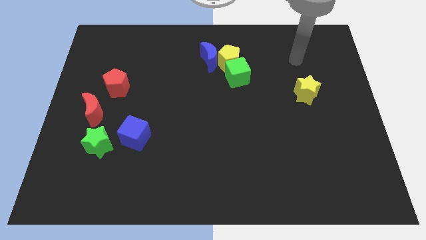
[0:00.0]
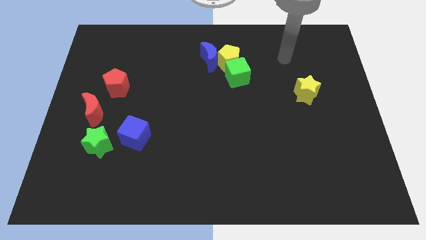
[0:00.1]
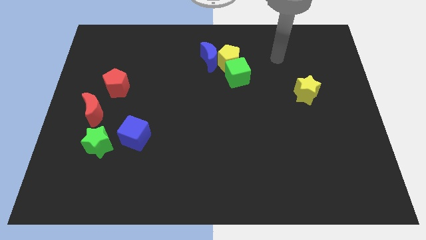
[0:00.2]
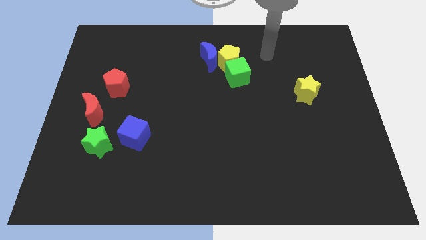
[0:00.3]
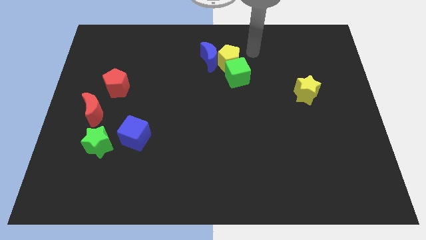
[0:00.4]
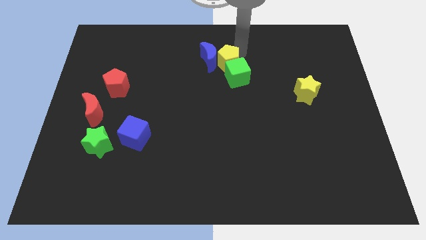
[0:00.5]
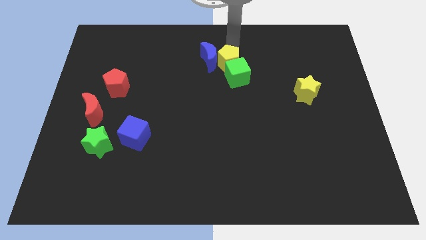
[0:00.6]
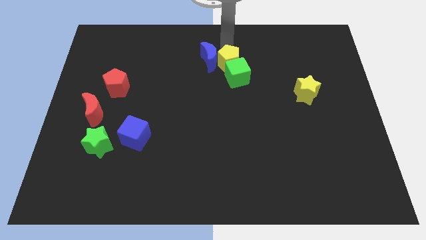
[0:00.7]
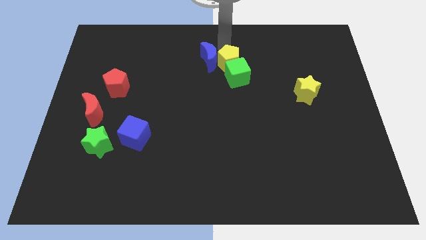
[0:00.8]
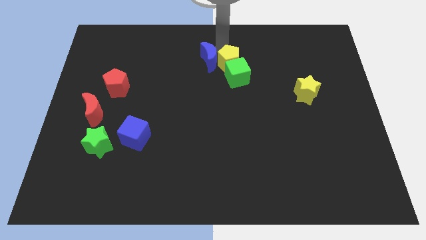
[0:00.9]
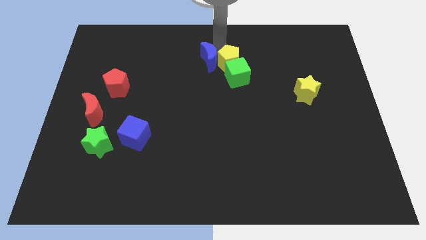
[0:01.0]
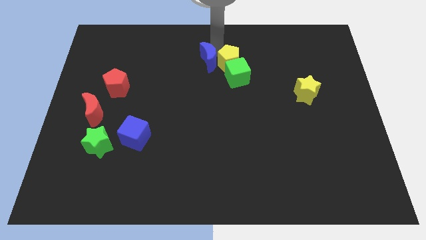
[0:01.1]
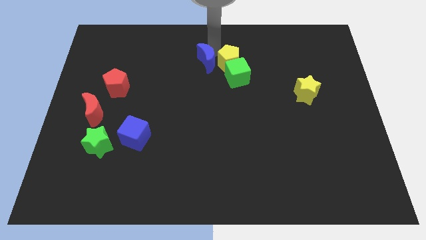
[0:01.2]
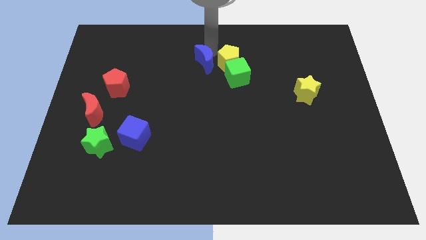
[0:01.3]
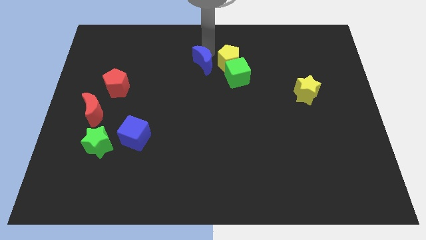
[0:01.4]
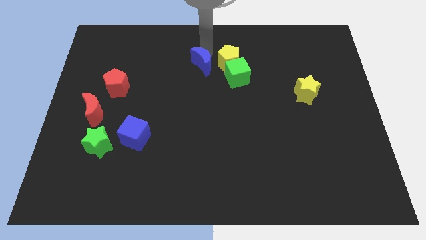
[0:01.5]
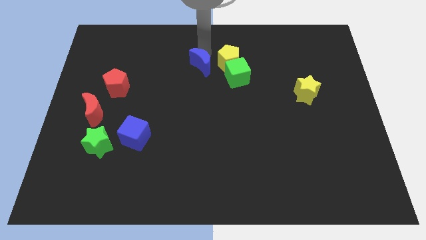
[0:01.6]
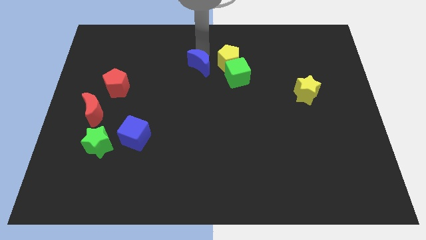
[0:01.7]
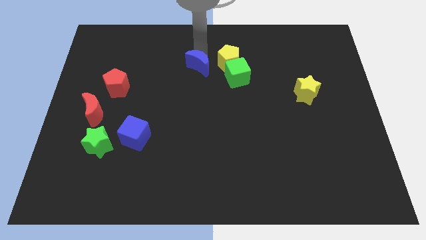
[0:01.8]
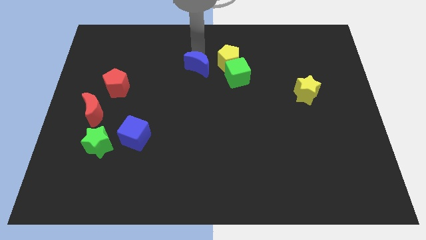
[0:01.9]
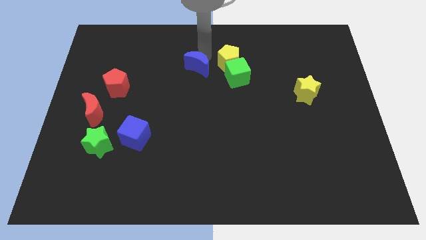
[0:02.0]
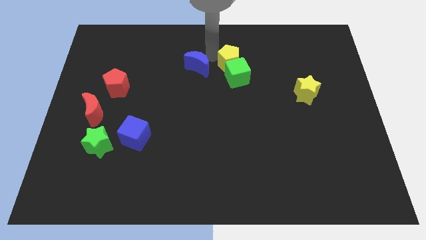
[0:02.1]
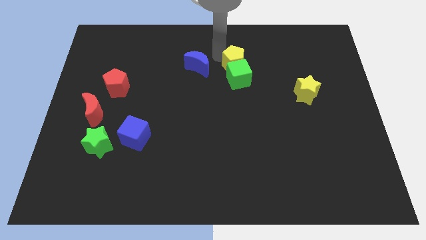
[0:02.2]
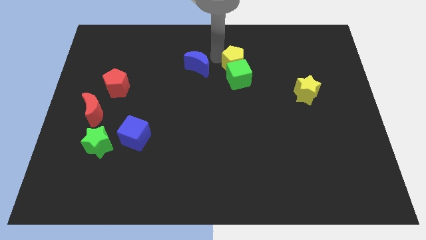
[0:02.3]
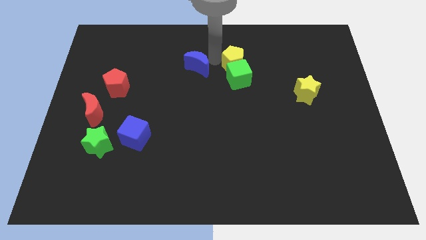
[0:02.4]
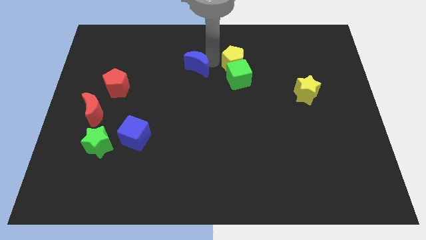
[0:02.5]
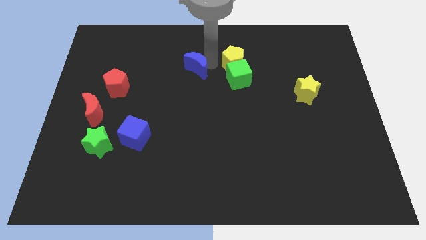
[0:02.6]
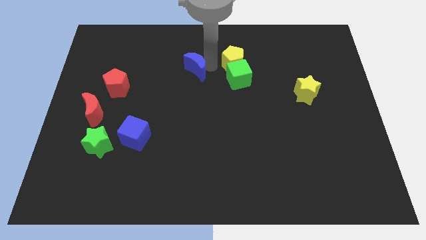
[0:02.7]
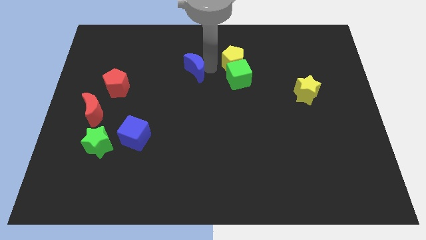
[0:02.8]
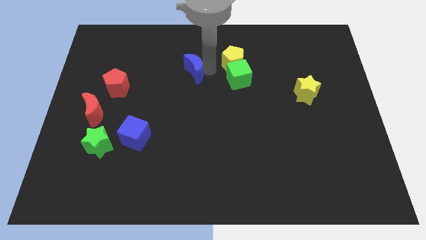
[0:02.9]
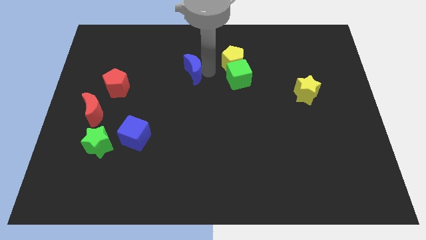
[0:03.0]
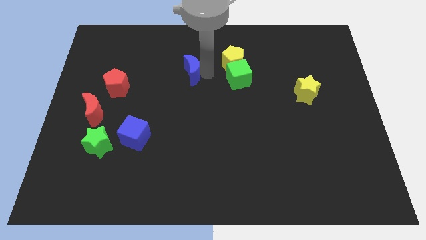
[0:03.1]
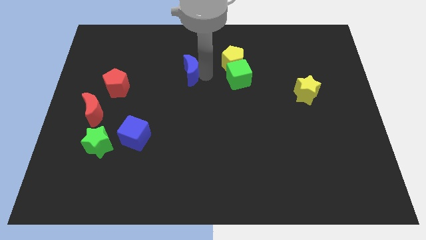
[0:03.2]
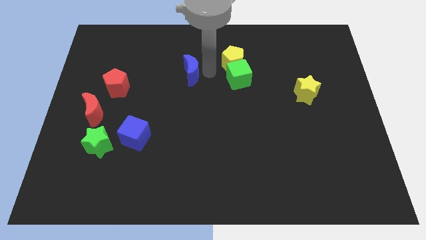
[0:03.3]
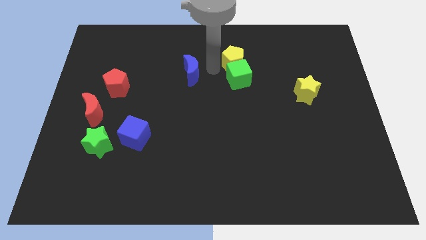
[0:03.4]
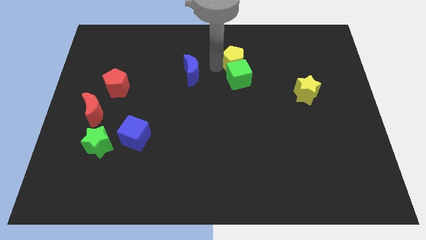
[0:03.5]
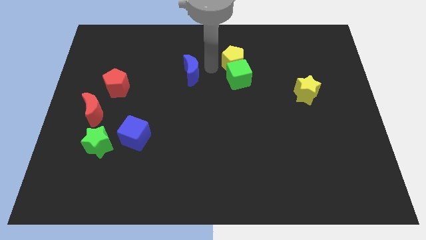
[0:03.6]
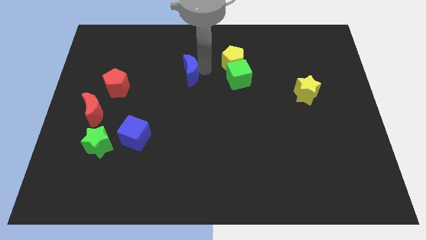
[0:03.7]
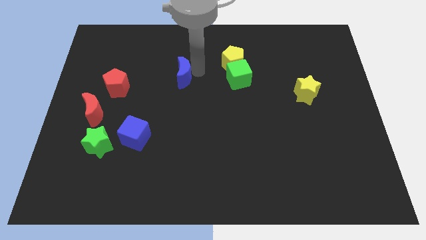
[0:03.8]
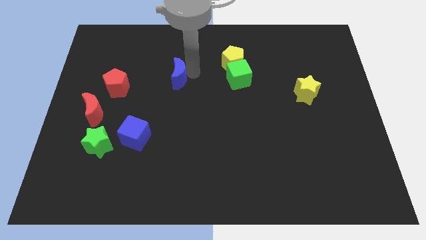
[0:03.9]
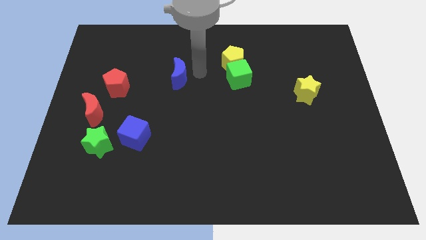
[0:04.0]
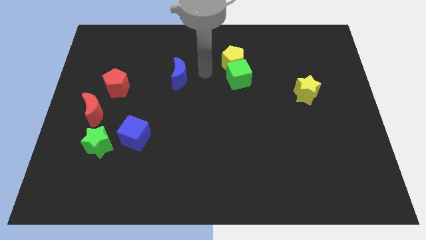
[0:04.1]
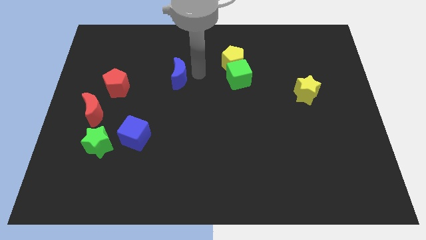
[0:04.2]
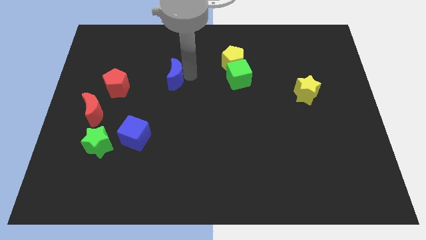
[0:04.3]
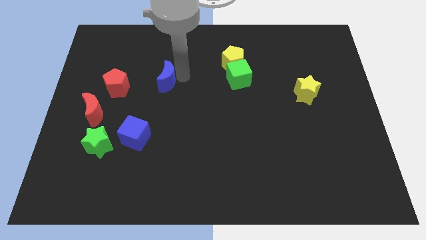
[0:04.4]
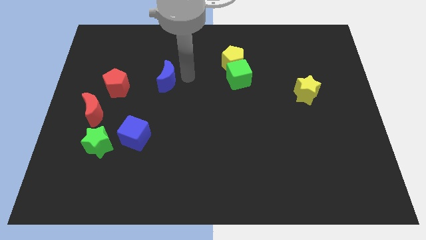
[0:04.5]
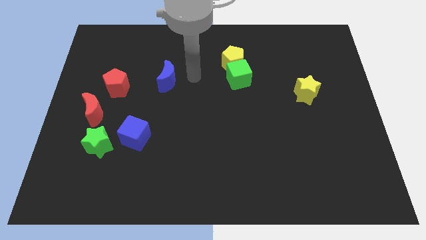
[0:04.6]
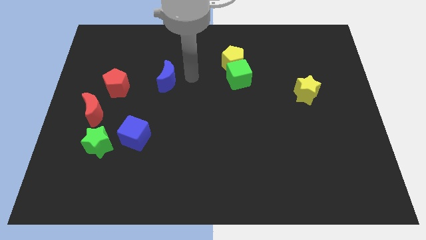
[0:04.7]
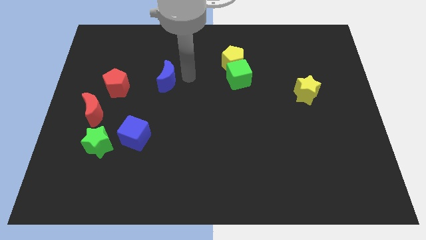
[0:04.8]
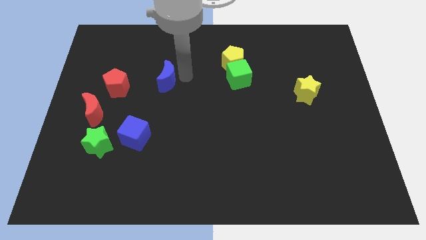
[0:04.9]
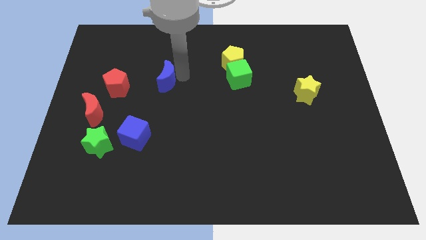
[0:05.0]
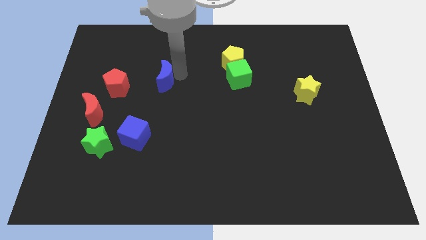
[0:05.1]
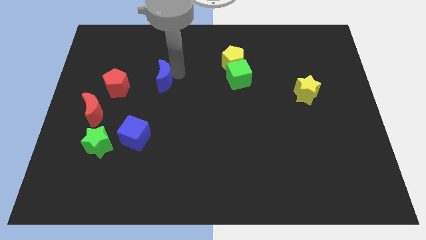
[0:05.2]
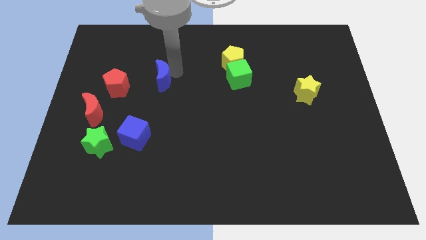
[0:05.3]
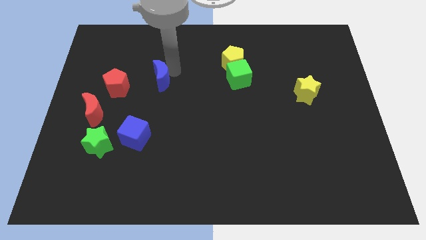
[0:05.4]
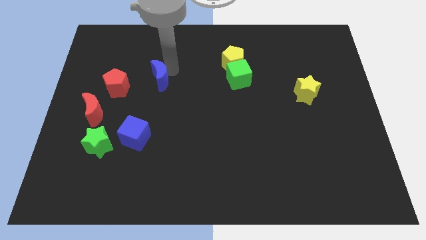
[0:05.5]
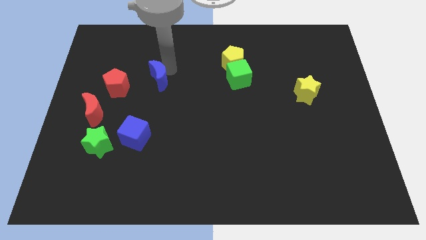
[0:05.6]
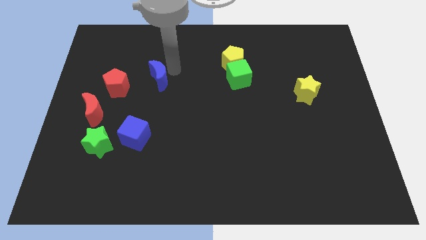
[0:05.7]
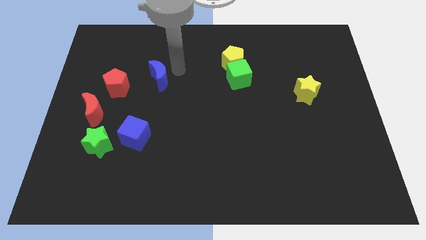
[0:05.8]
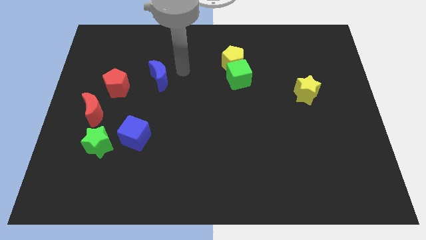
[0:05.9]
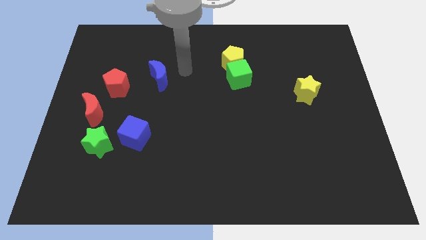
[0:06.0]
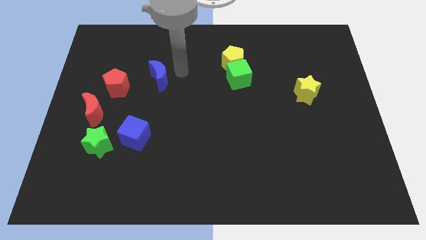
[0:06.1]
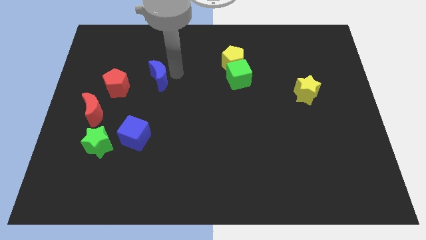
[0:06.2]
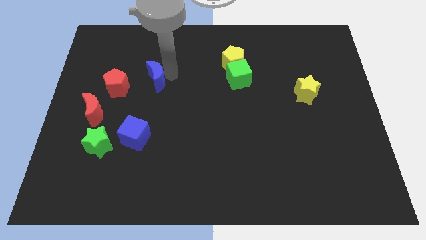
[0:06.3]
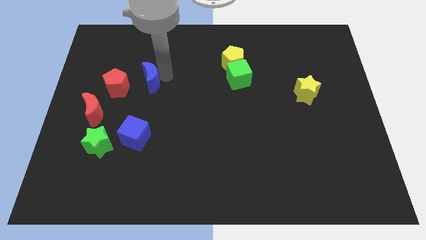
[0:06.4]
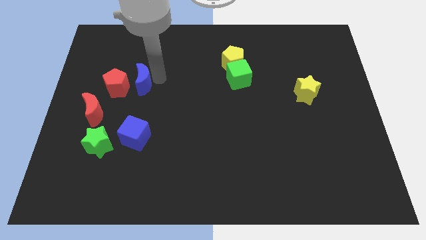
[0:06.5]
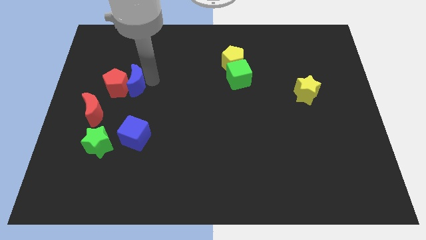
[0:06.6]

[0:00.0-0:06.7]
push the blue moon towards the red pentagon

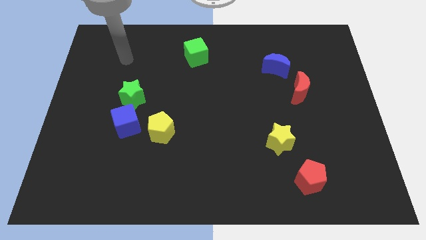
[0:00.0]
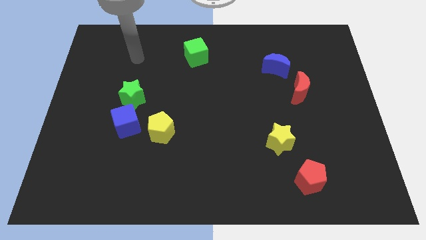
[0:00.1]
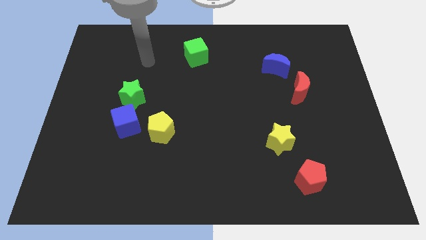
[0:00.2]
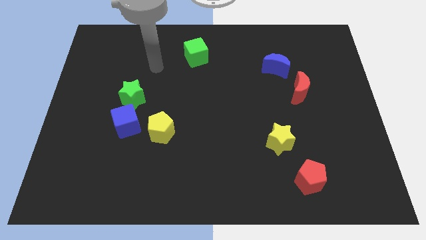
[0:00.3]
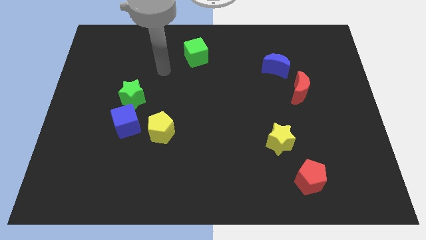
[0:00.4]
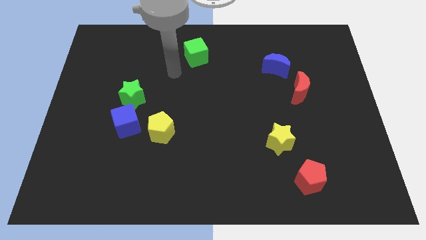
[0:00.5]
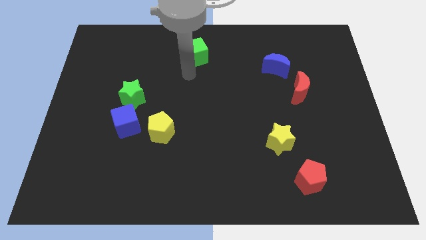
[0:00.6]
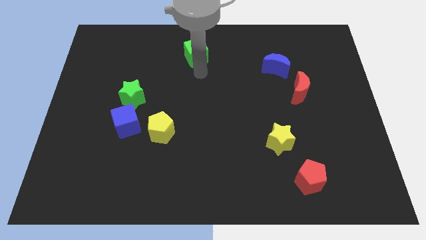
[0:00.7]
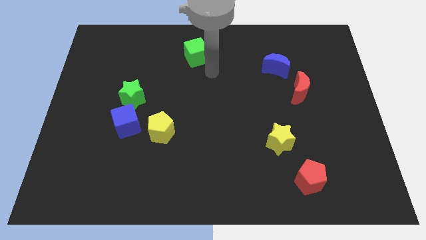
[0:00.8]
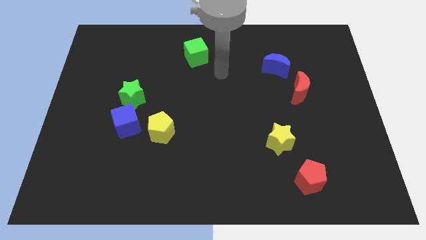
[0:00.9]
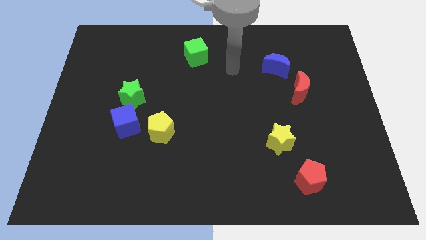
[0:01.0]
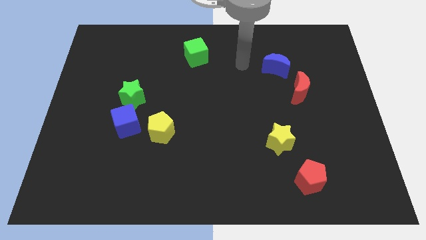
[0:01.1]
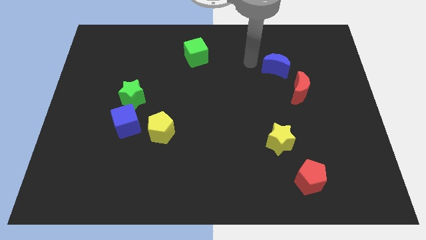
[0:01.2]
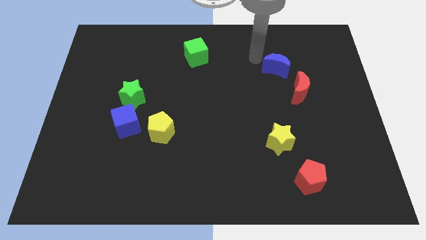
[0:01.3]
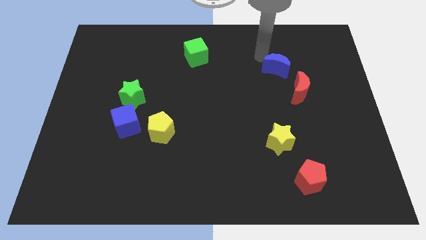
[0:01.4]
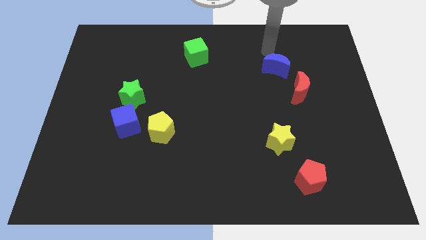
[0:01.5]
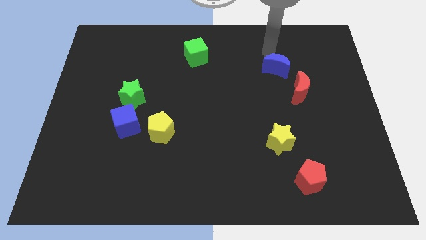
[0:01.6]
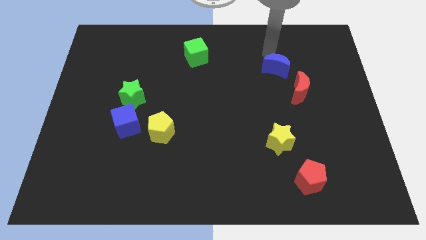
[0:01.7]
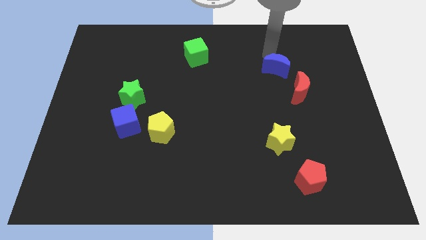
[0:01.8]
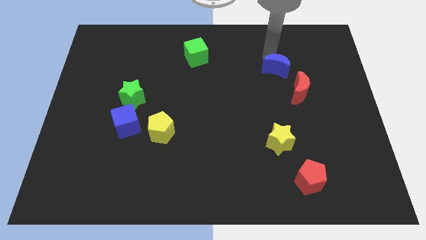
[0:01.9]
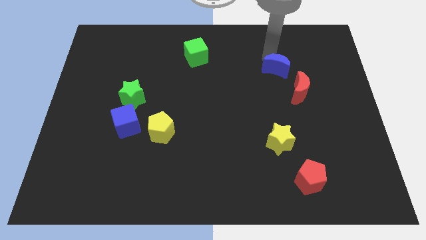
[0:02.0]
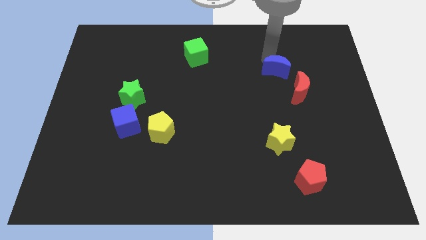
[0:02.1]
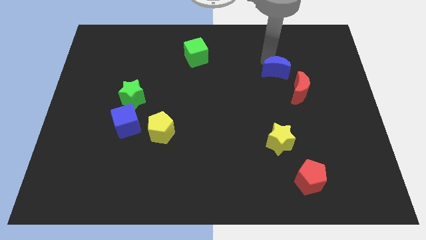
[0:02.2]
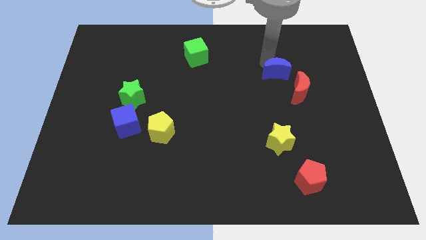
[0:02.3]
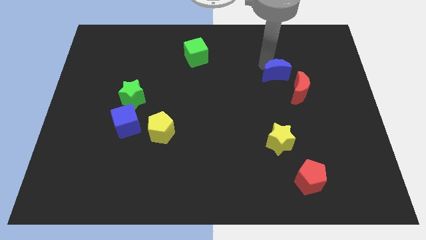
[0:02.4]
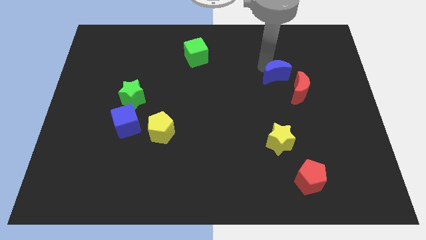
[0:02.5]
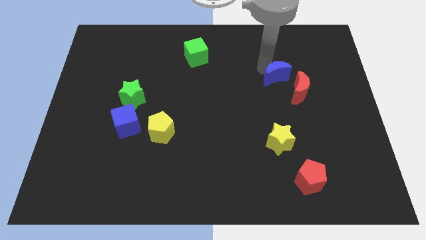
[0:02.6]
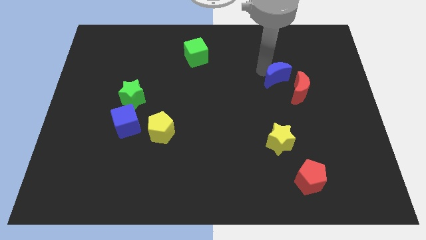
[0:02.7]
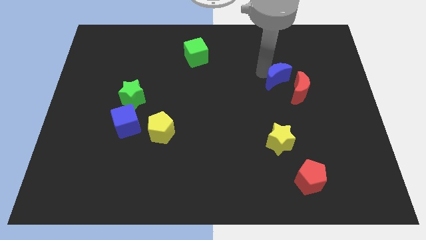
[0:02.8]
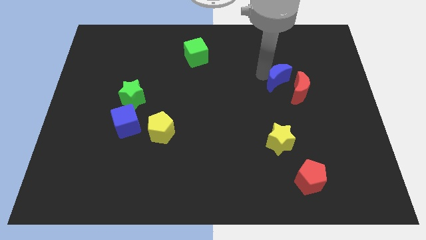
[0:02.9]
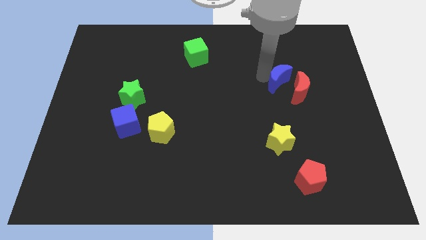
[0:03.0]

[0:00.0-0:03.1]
slide the blue moon next to the red moon
